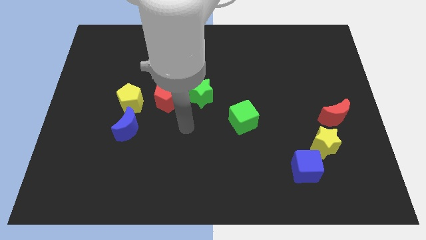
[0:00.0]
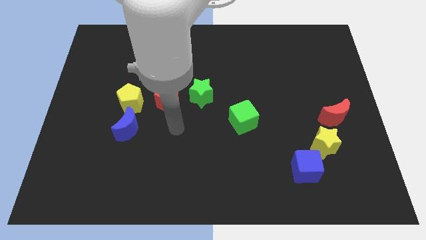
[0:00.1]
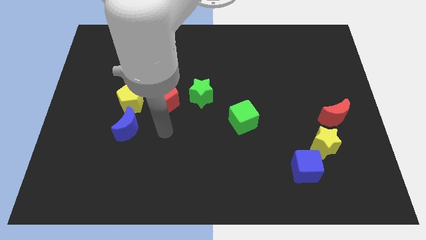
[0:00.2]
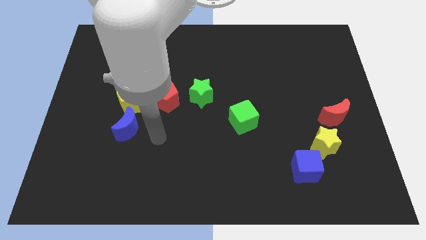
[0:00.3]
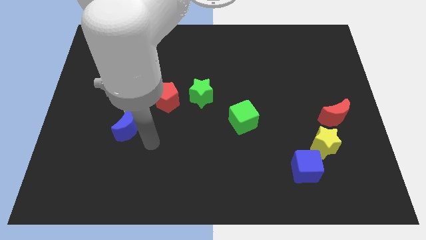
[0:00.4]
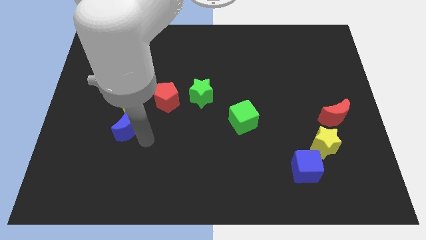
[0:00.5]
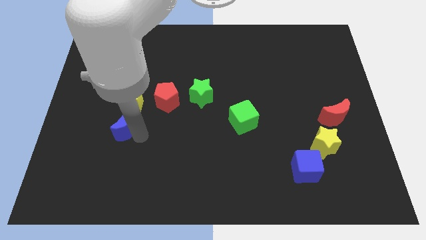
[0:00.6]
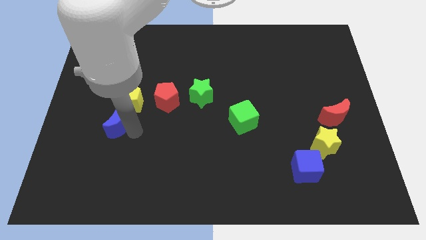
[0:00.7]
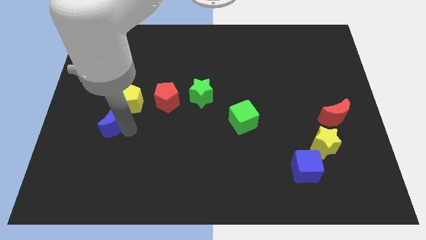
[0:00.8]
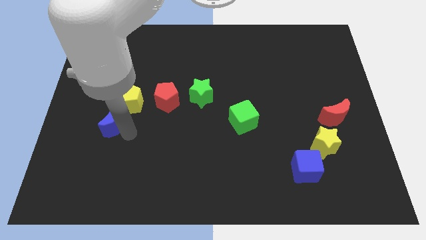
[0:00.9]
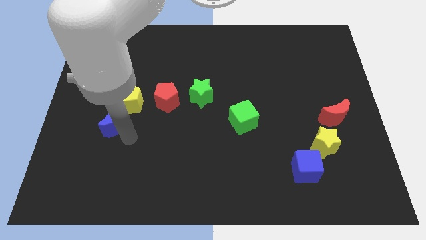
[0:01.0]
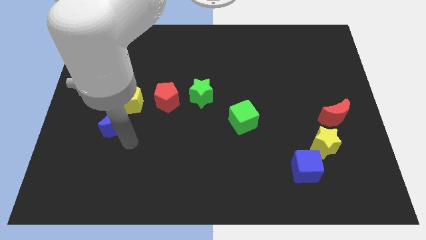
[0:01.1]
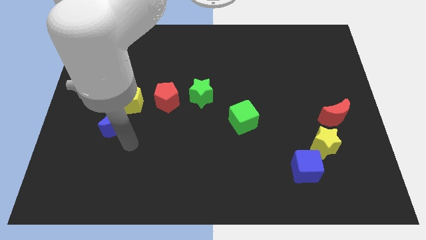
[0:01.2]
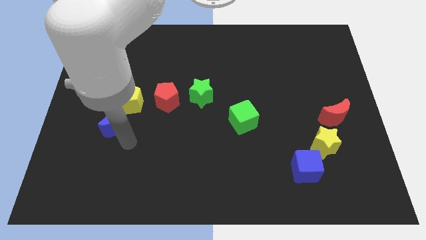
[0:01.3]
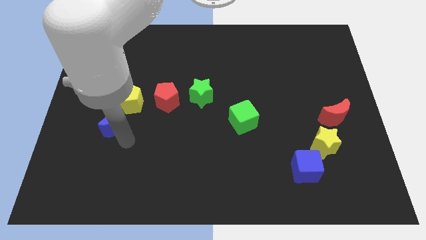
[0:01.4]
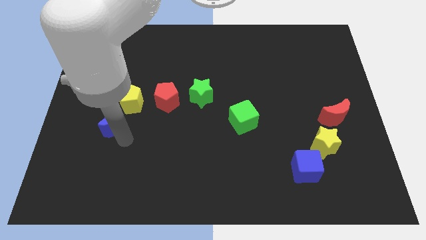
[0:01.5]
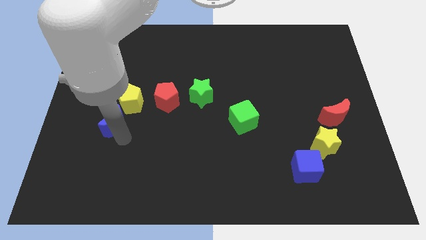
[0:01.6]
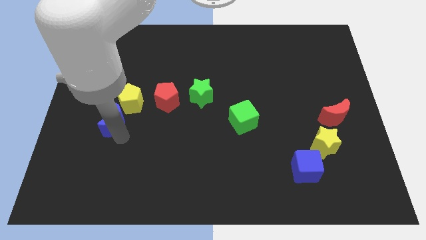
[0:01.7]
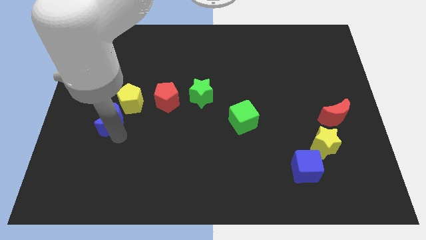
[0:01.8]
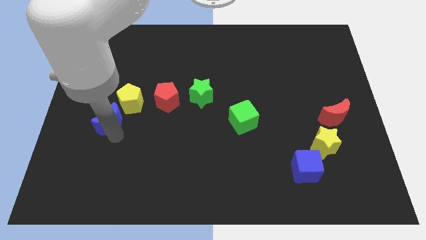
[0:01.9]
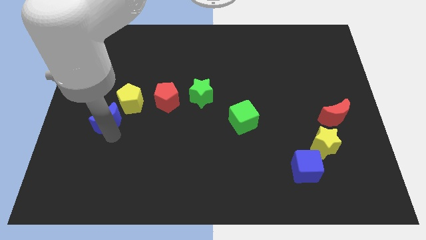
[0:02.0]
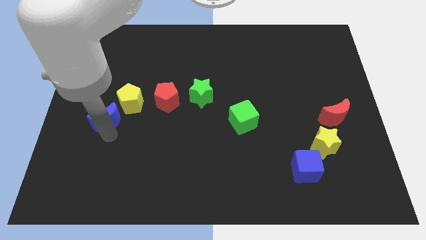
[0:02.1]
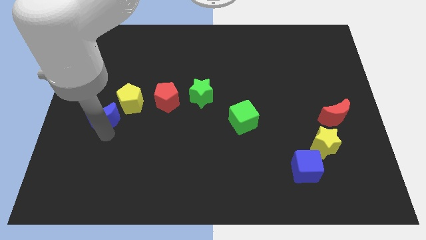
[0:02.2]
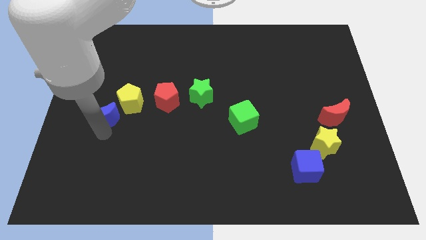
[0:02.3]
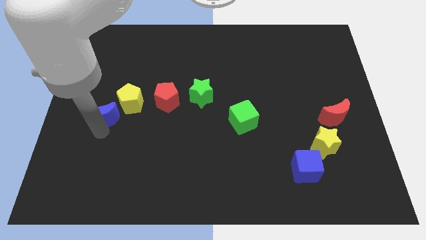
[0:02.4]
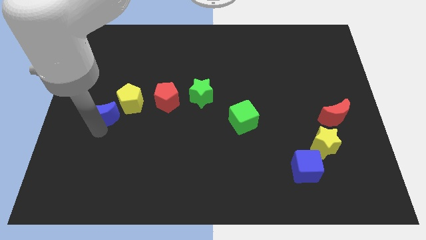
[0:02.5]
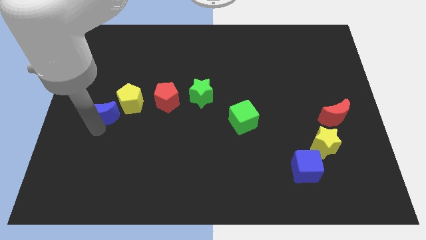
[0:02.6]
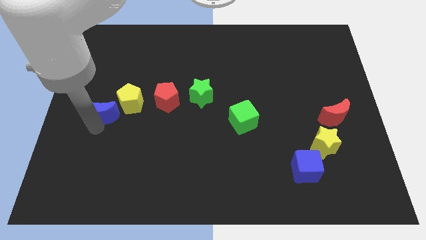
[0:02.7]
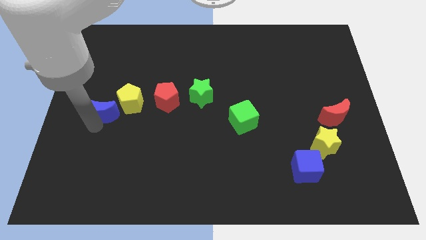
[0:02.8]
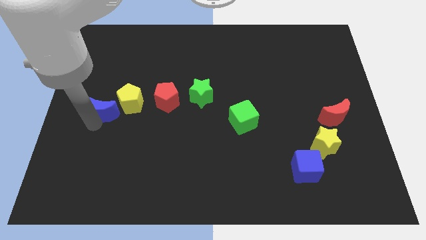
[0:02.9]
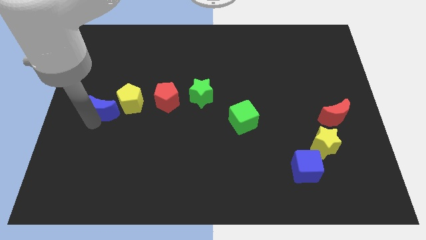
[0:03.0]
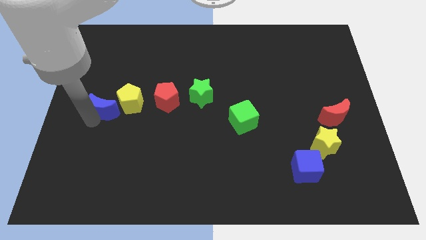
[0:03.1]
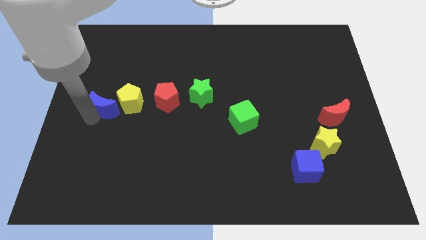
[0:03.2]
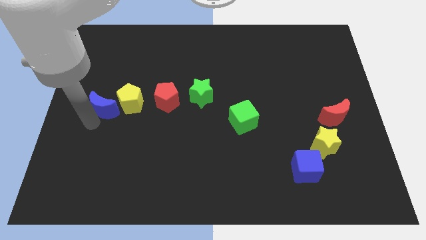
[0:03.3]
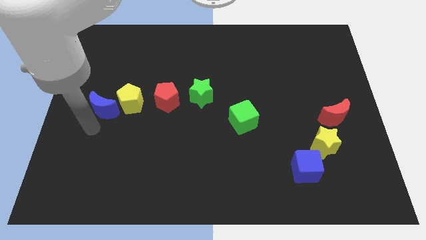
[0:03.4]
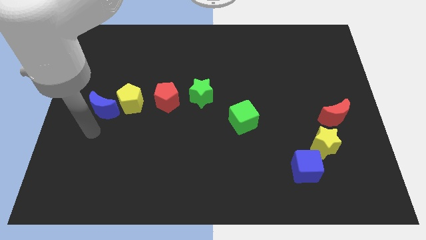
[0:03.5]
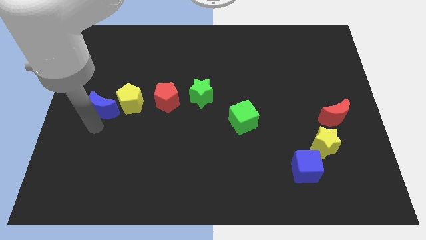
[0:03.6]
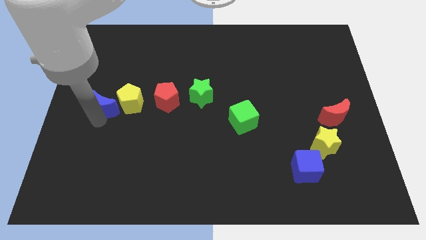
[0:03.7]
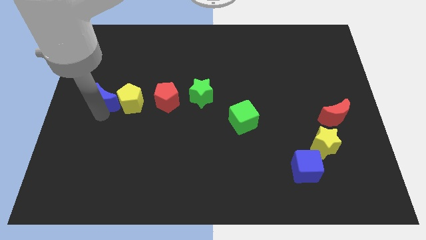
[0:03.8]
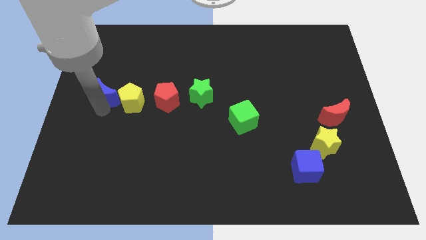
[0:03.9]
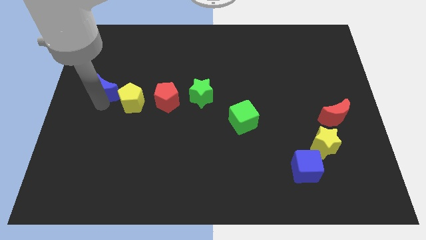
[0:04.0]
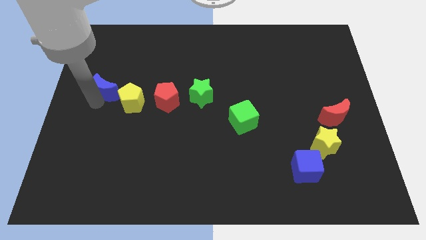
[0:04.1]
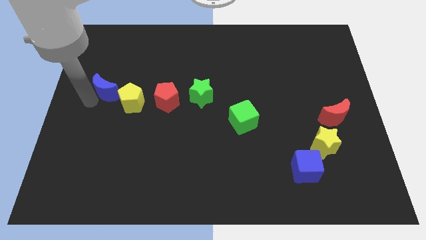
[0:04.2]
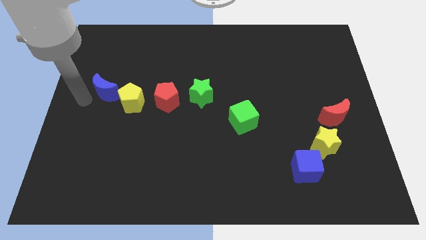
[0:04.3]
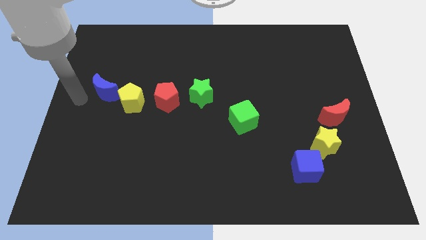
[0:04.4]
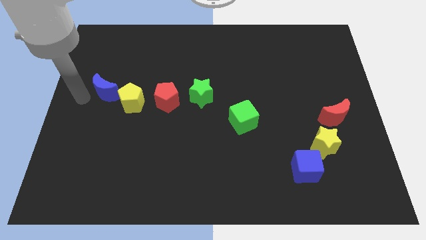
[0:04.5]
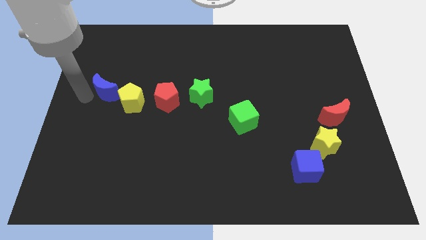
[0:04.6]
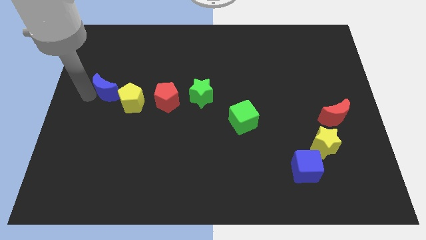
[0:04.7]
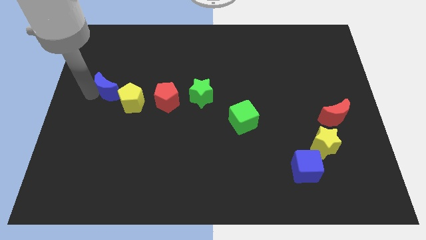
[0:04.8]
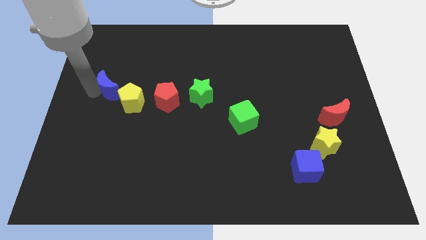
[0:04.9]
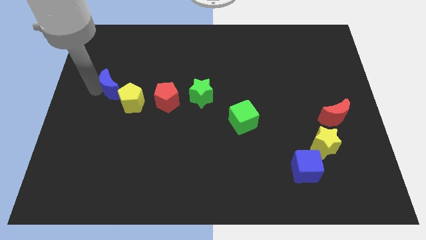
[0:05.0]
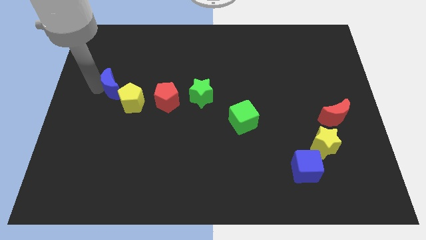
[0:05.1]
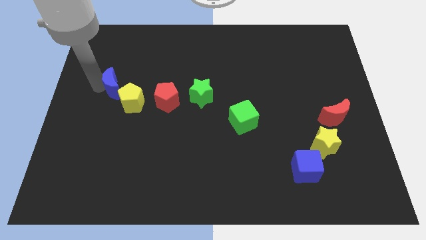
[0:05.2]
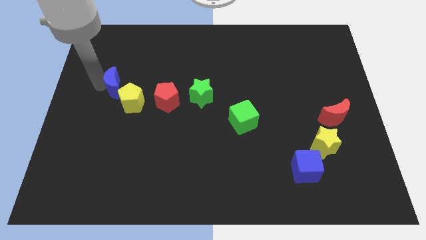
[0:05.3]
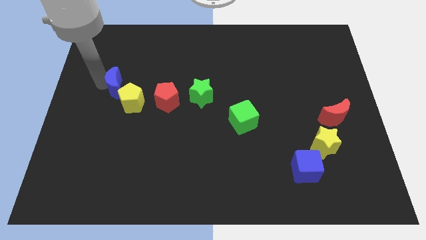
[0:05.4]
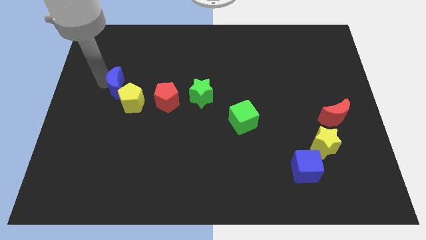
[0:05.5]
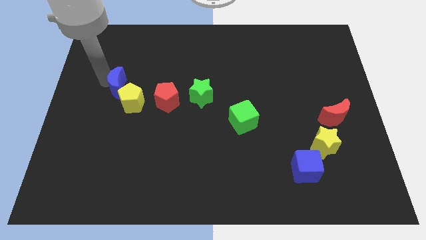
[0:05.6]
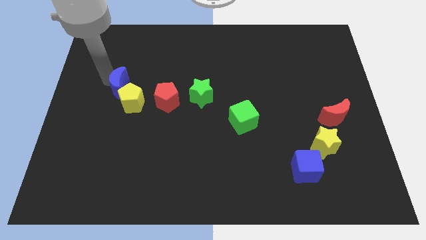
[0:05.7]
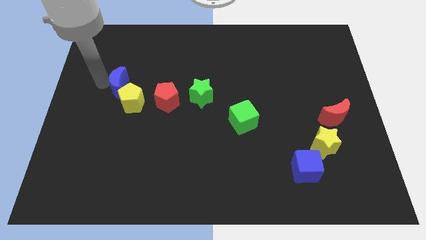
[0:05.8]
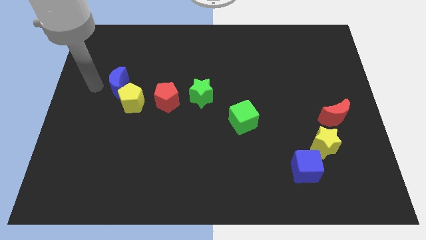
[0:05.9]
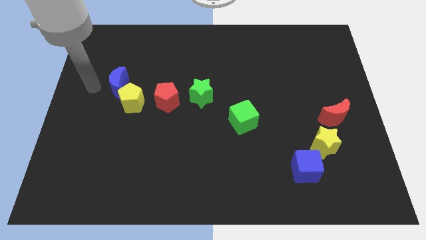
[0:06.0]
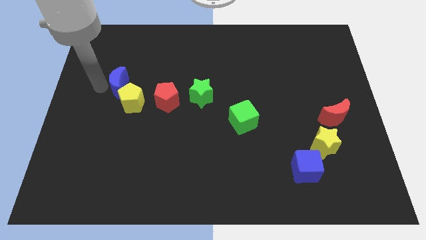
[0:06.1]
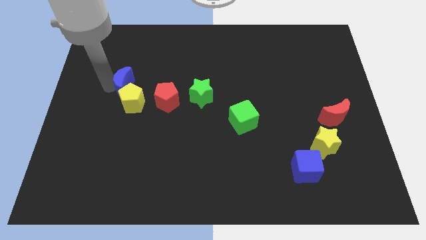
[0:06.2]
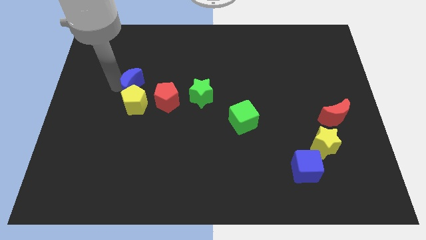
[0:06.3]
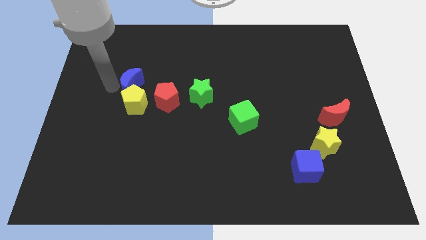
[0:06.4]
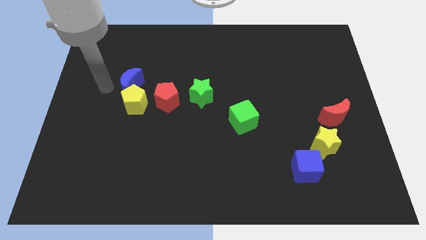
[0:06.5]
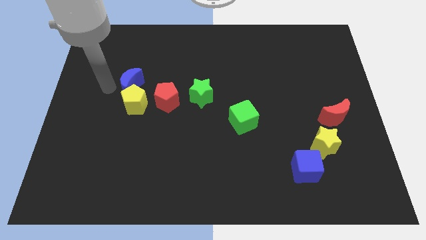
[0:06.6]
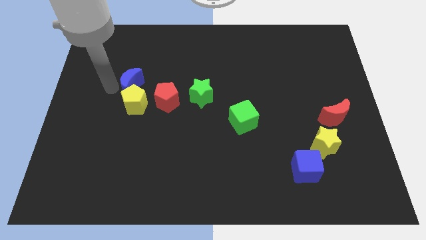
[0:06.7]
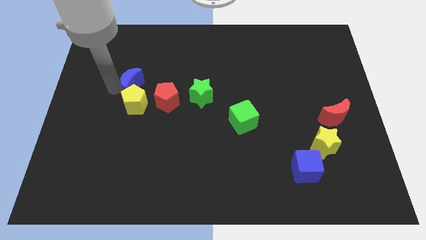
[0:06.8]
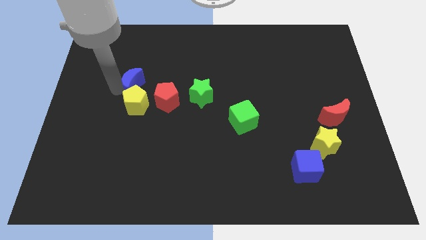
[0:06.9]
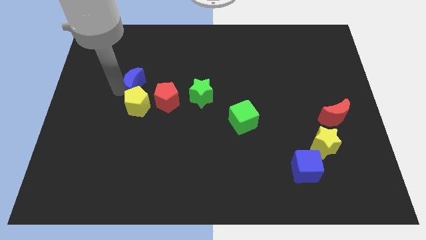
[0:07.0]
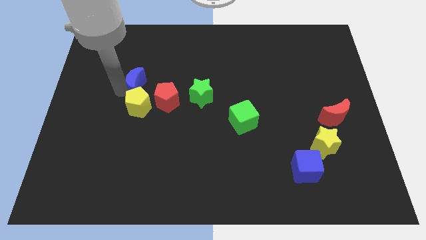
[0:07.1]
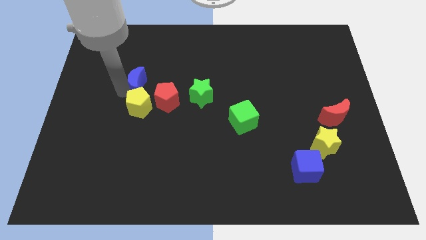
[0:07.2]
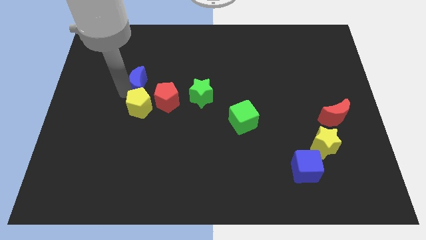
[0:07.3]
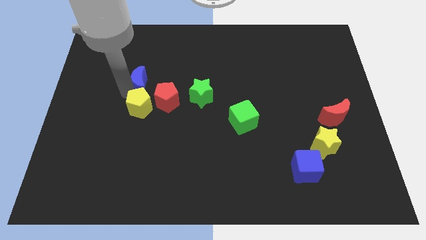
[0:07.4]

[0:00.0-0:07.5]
slightly push the blue moon upwards and right diagonally

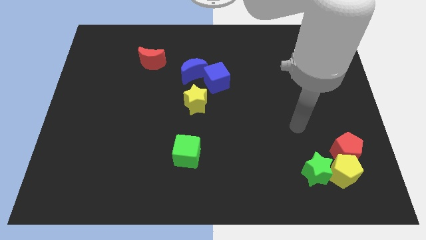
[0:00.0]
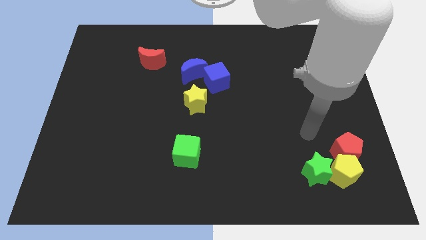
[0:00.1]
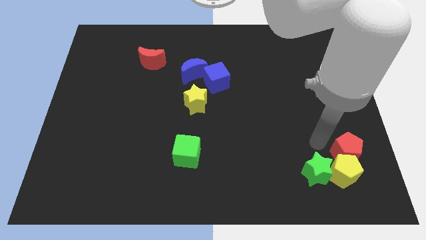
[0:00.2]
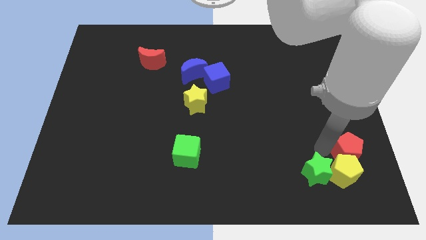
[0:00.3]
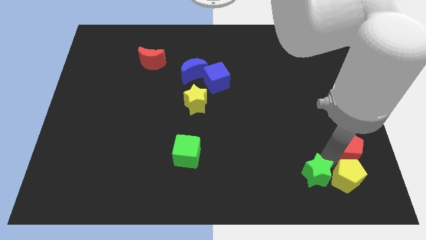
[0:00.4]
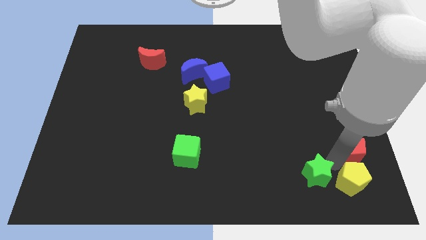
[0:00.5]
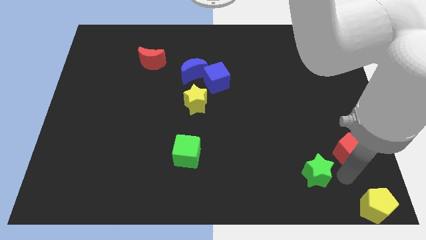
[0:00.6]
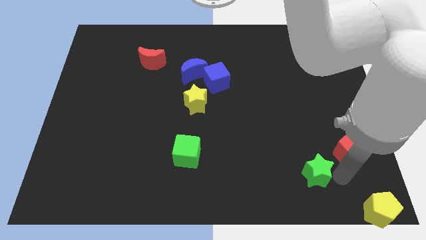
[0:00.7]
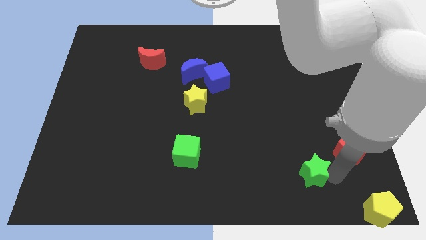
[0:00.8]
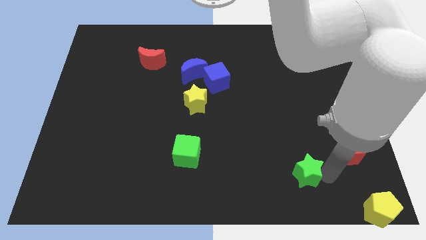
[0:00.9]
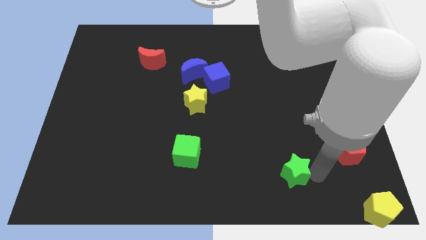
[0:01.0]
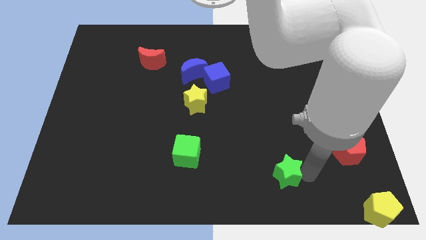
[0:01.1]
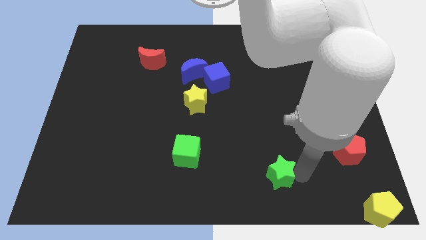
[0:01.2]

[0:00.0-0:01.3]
slide the green star to the left somewhat
